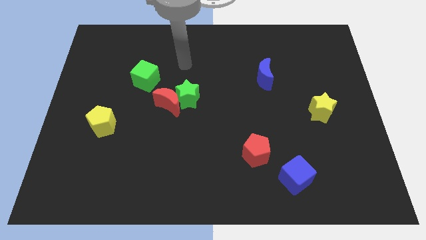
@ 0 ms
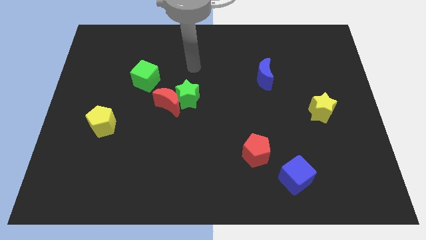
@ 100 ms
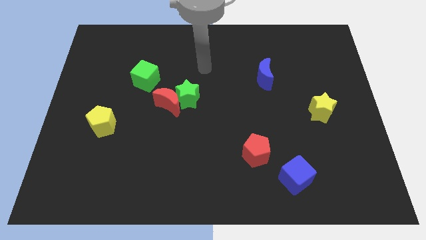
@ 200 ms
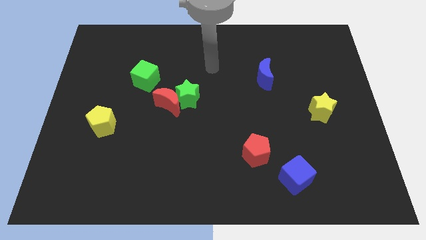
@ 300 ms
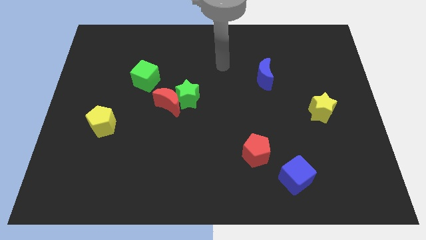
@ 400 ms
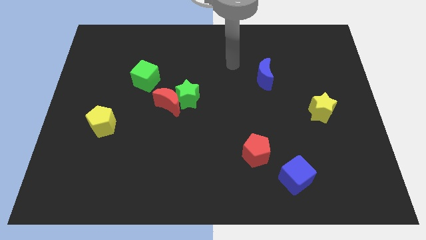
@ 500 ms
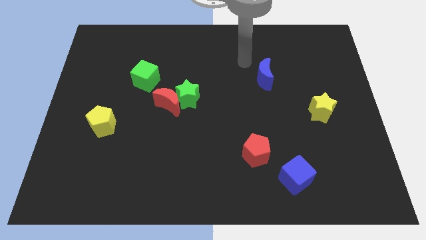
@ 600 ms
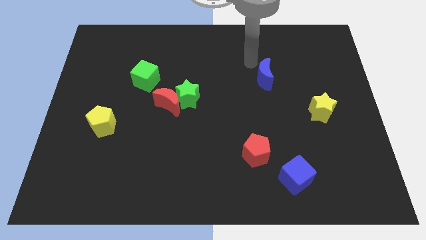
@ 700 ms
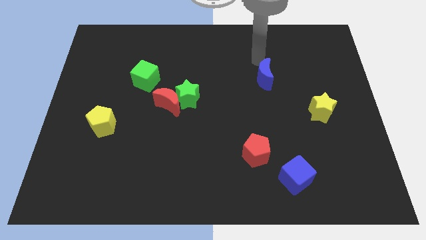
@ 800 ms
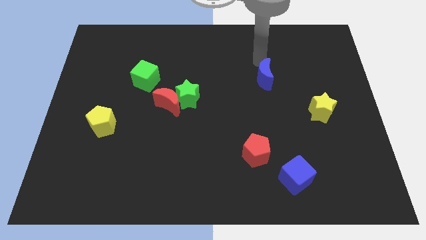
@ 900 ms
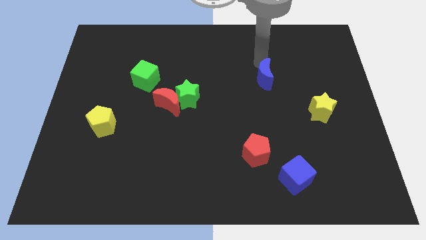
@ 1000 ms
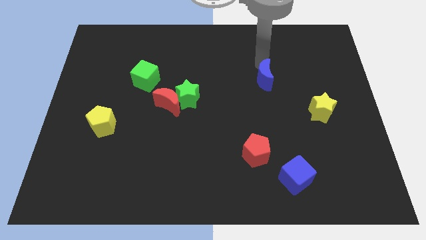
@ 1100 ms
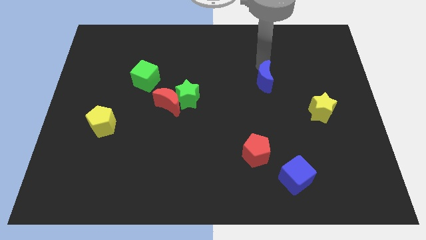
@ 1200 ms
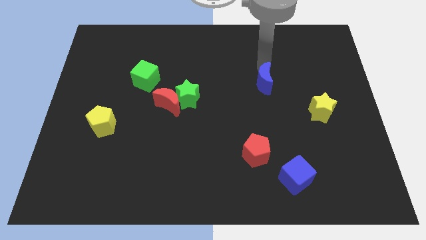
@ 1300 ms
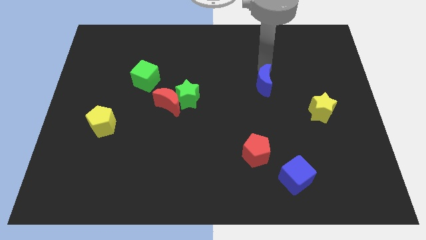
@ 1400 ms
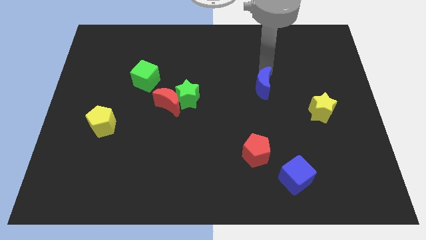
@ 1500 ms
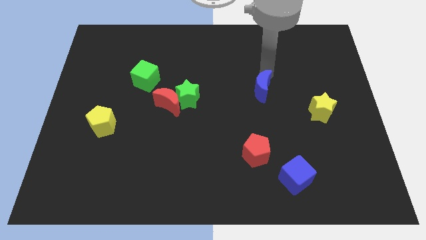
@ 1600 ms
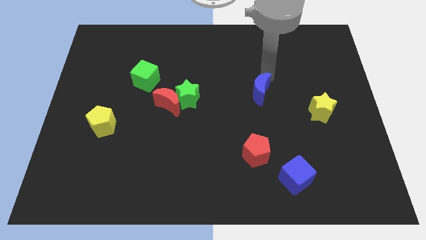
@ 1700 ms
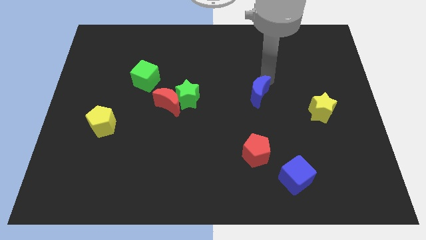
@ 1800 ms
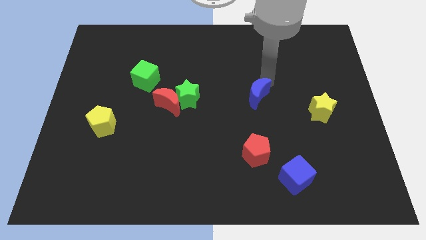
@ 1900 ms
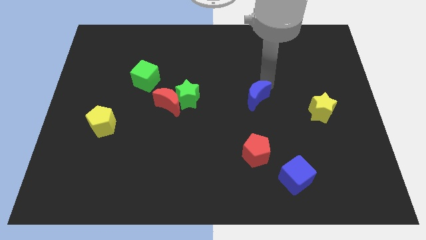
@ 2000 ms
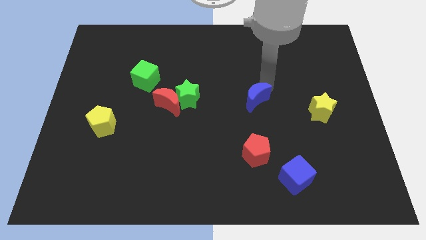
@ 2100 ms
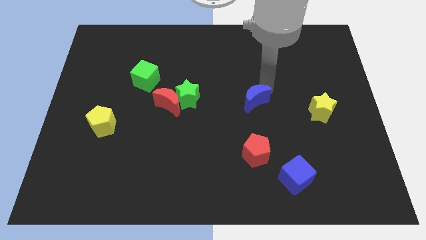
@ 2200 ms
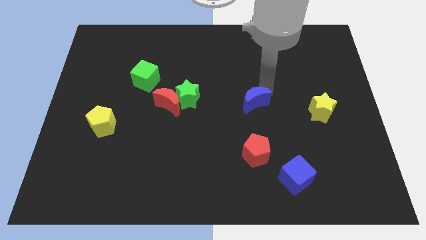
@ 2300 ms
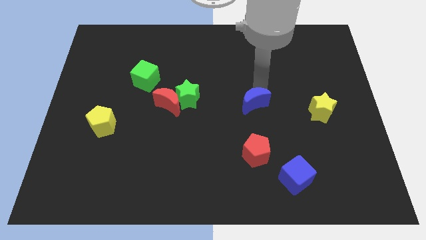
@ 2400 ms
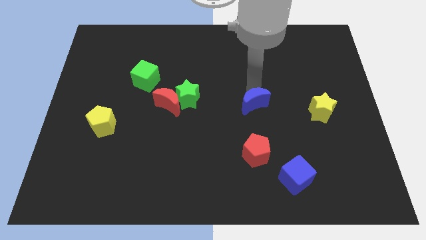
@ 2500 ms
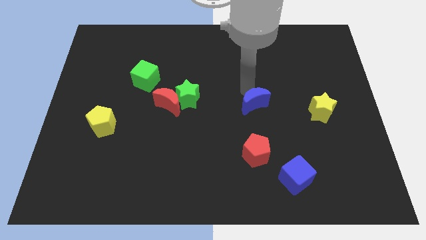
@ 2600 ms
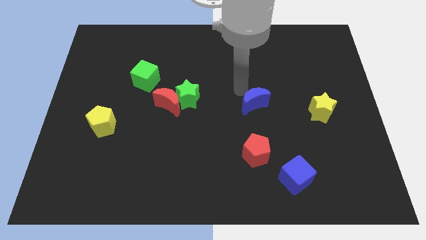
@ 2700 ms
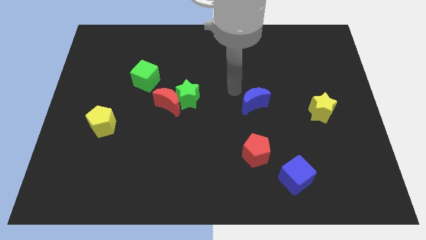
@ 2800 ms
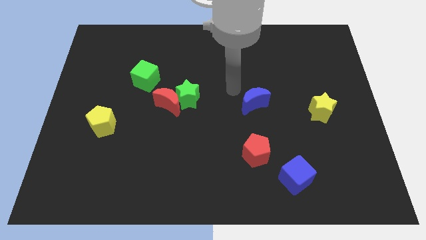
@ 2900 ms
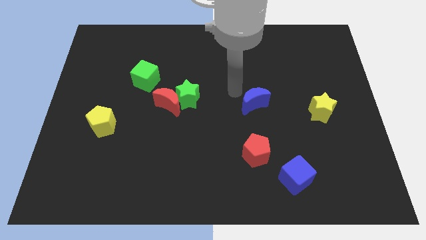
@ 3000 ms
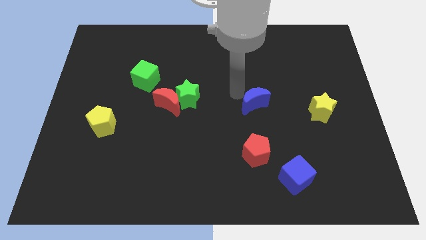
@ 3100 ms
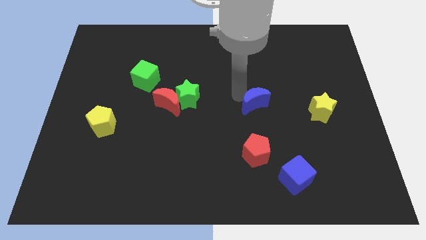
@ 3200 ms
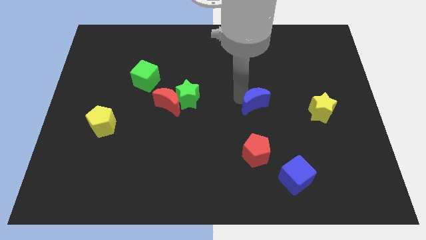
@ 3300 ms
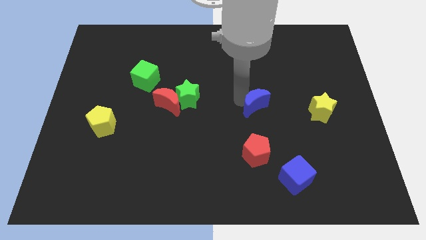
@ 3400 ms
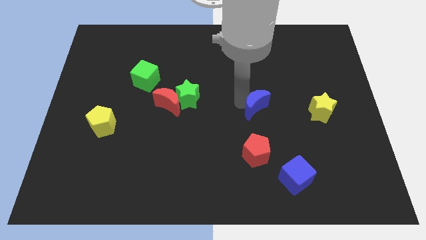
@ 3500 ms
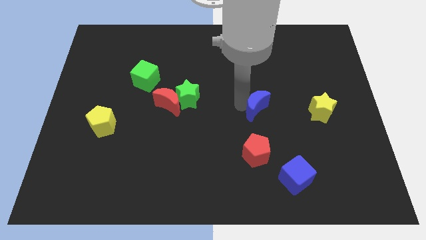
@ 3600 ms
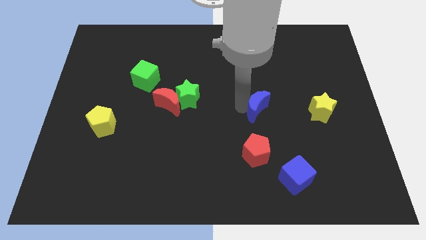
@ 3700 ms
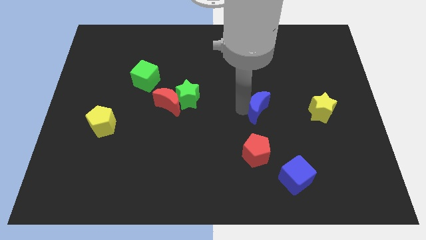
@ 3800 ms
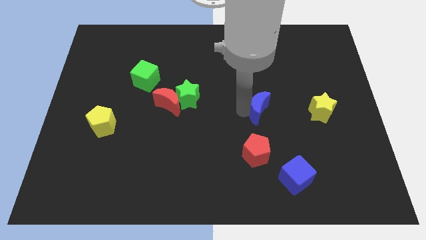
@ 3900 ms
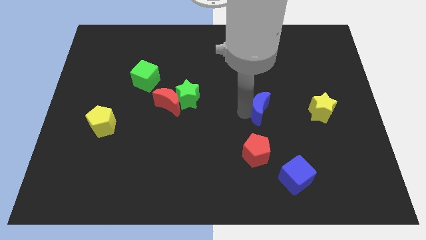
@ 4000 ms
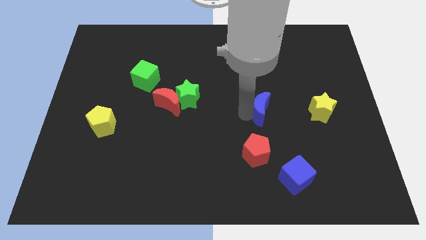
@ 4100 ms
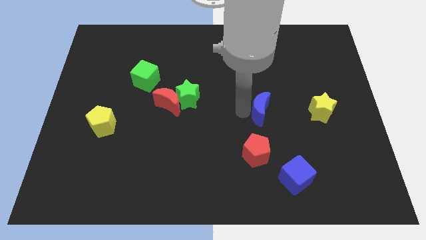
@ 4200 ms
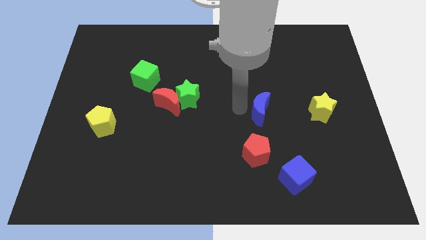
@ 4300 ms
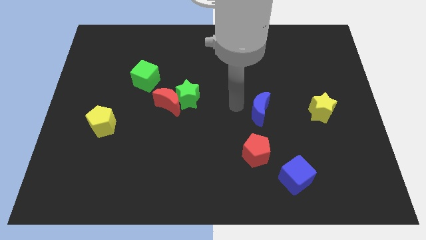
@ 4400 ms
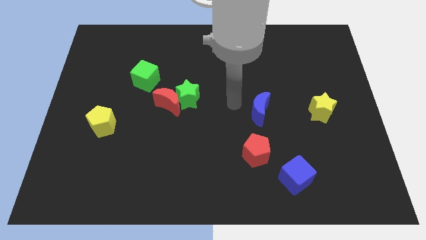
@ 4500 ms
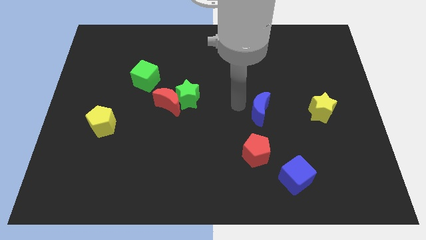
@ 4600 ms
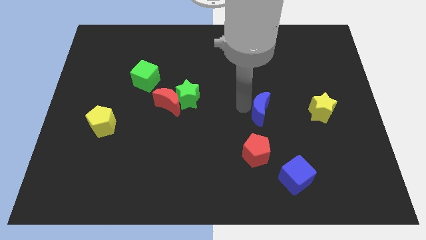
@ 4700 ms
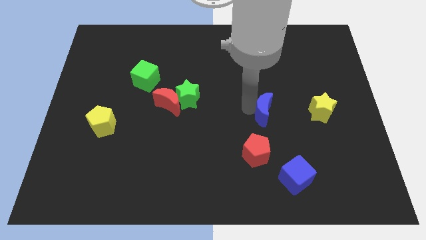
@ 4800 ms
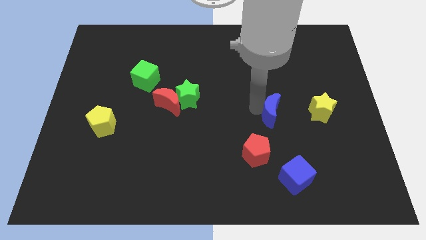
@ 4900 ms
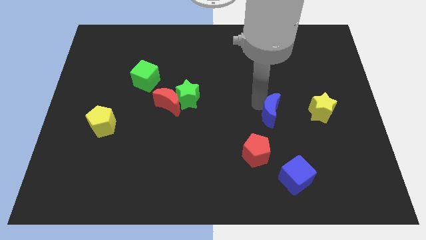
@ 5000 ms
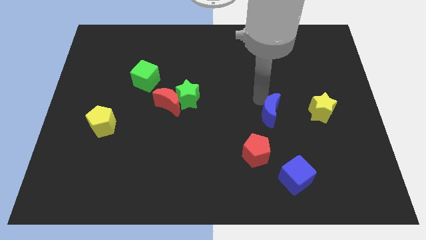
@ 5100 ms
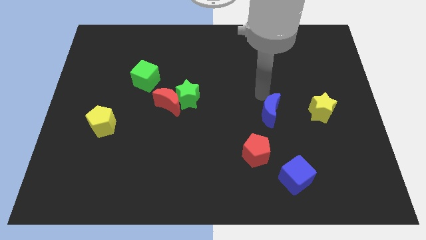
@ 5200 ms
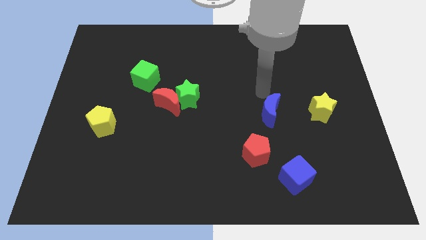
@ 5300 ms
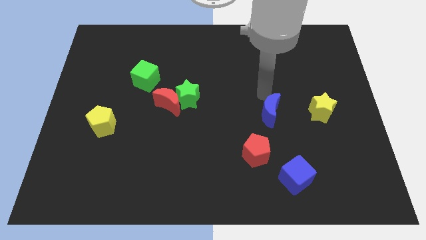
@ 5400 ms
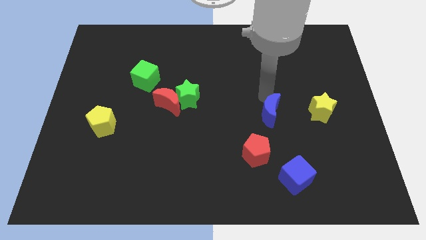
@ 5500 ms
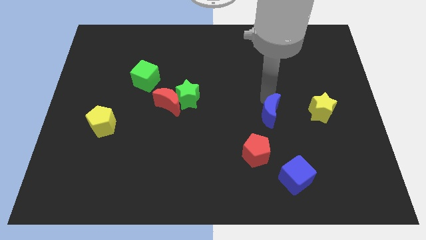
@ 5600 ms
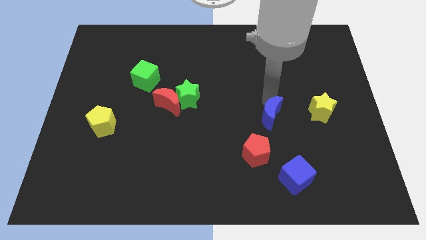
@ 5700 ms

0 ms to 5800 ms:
put the blue moon to the top right of the red pentagon
